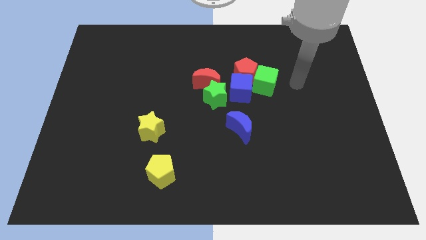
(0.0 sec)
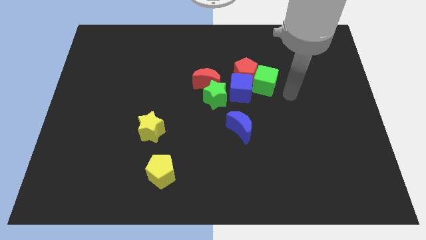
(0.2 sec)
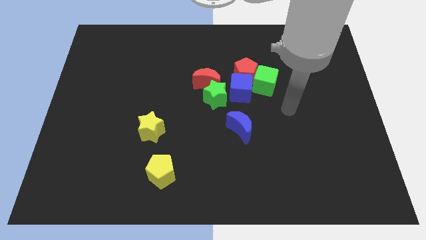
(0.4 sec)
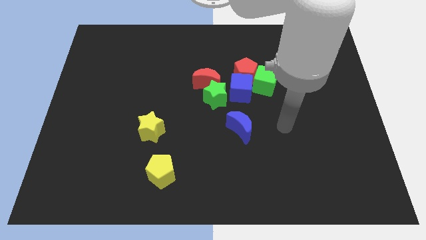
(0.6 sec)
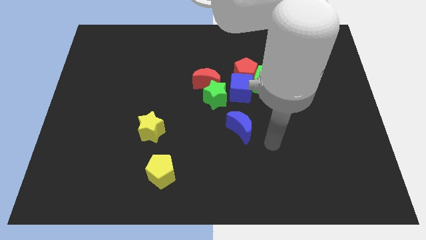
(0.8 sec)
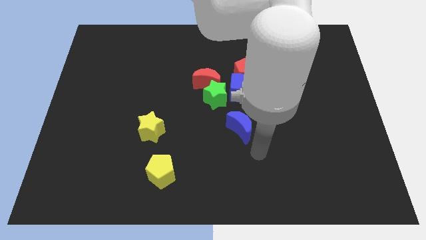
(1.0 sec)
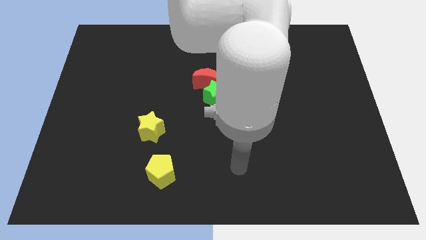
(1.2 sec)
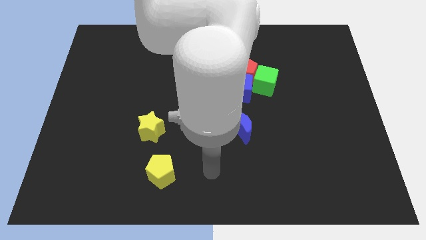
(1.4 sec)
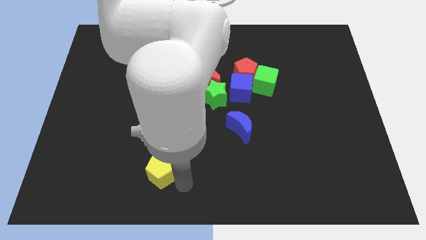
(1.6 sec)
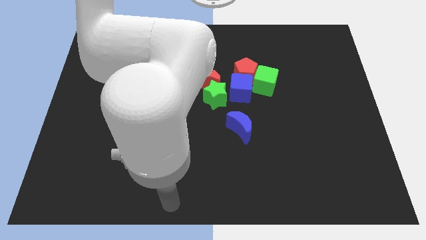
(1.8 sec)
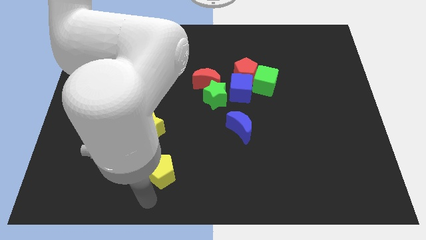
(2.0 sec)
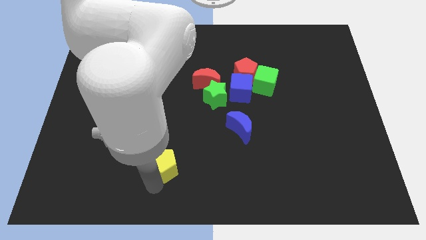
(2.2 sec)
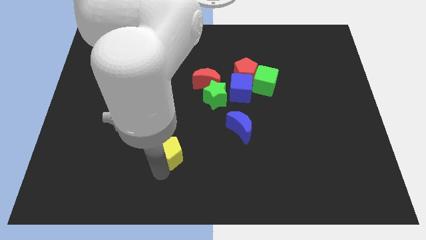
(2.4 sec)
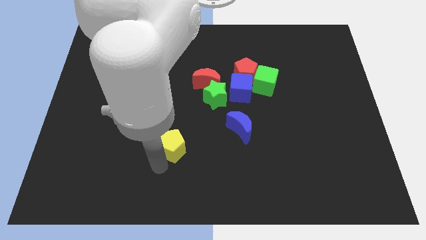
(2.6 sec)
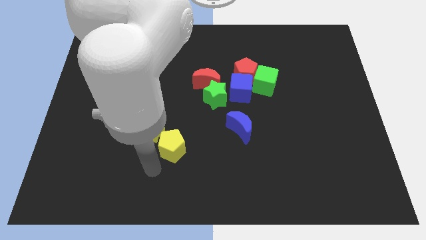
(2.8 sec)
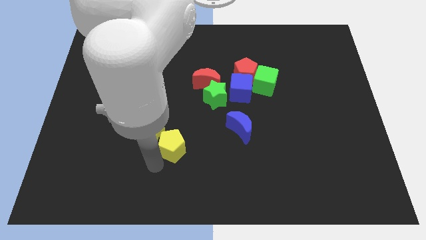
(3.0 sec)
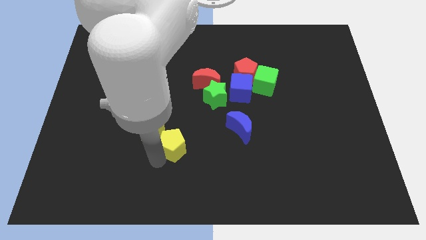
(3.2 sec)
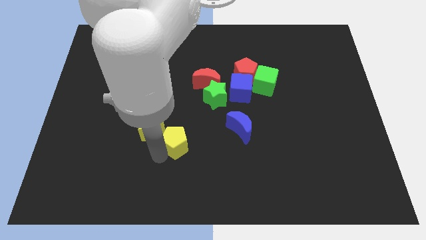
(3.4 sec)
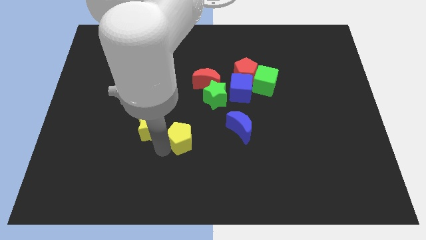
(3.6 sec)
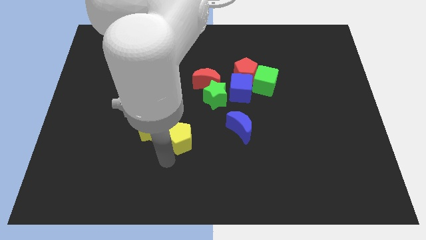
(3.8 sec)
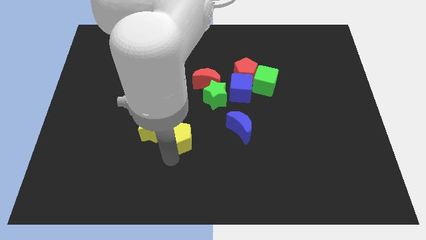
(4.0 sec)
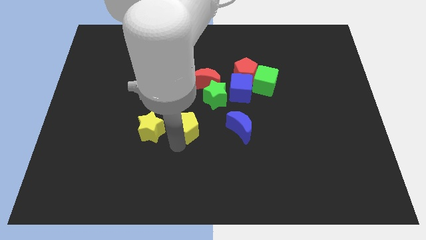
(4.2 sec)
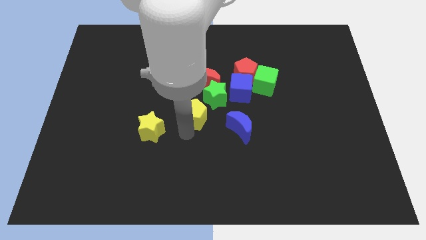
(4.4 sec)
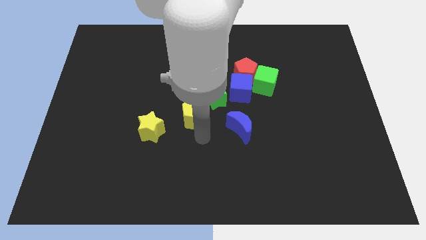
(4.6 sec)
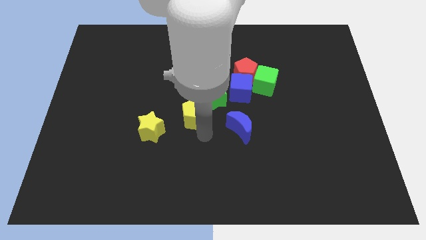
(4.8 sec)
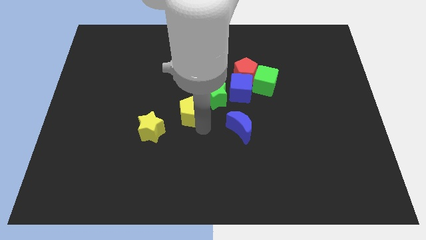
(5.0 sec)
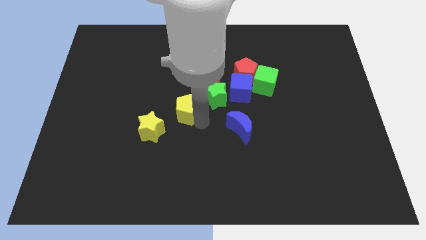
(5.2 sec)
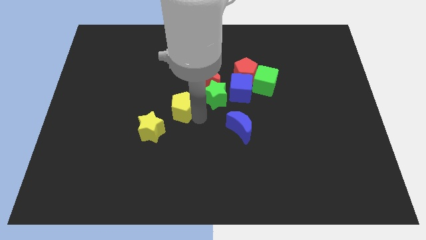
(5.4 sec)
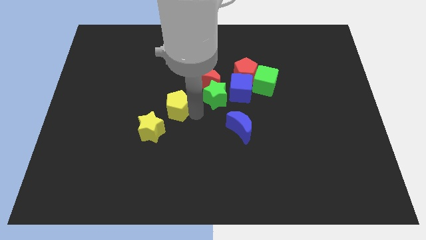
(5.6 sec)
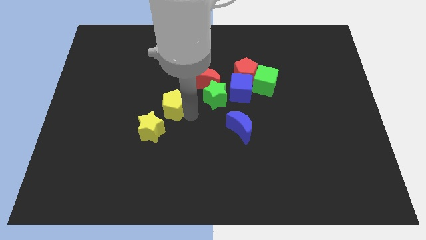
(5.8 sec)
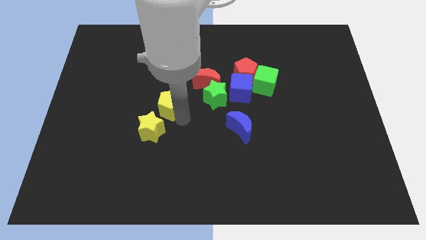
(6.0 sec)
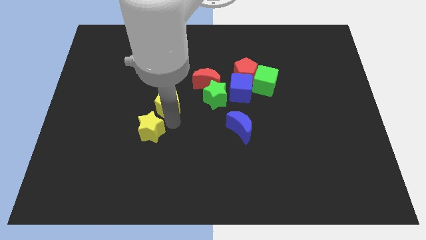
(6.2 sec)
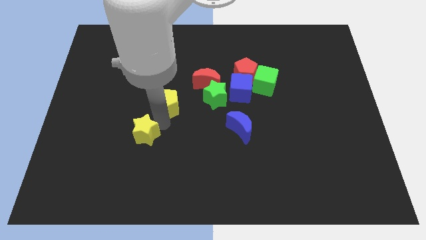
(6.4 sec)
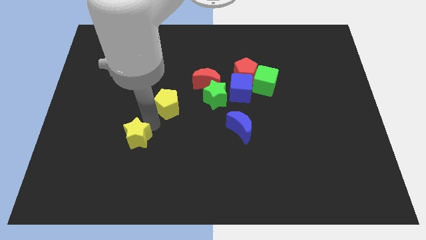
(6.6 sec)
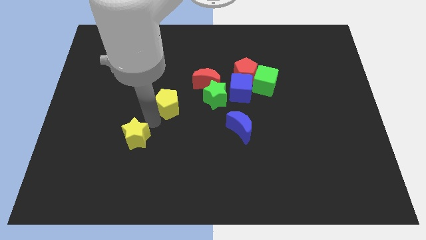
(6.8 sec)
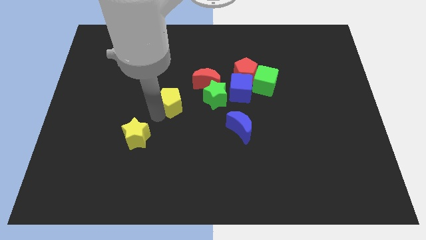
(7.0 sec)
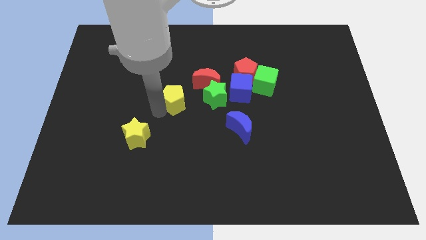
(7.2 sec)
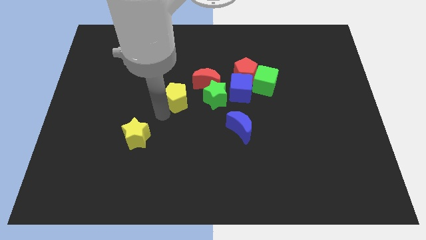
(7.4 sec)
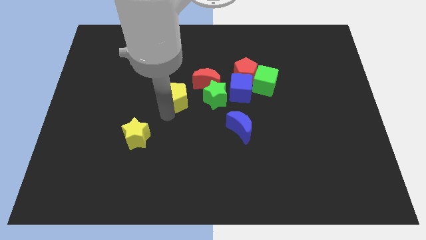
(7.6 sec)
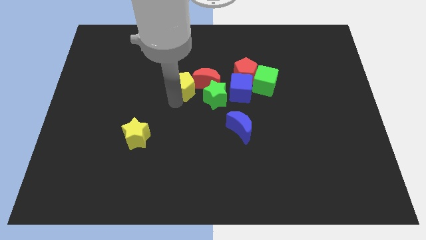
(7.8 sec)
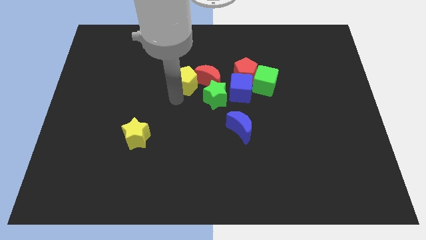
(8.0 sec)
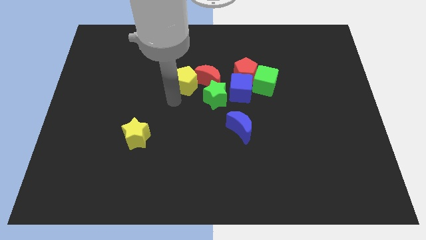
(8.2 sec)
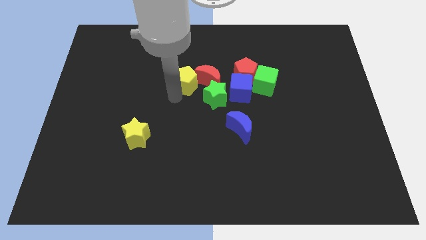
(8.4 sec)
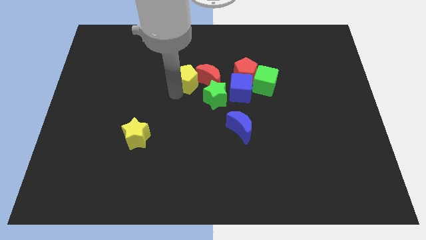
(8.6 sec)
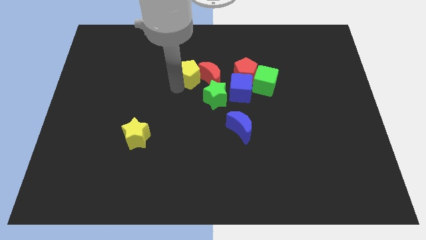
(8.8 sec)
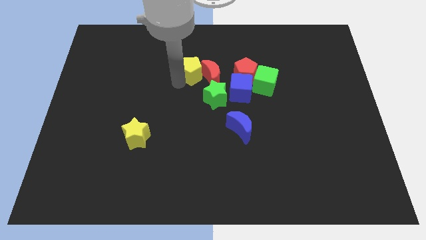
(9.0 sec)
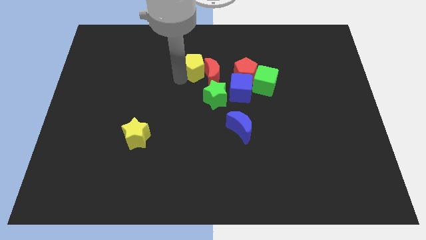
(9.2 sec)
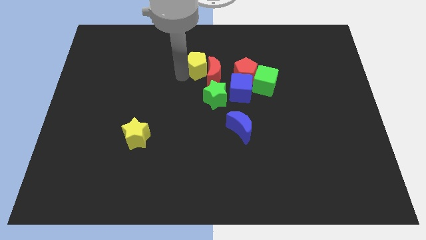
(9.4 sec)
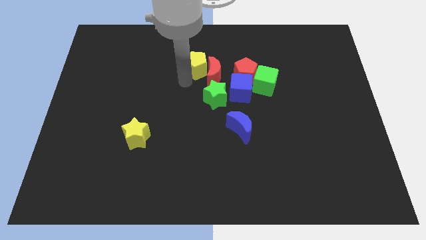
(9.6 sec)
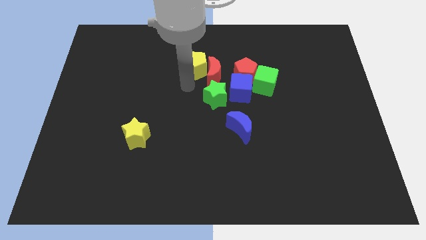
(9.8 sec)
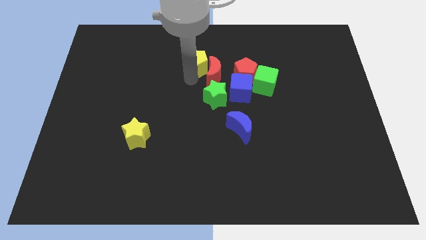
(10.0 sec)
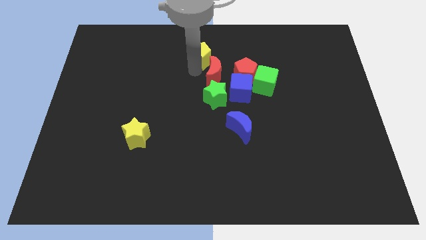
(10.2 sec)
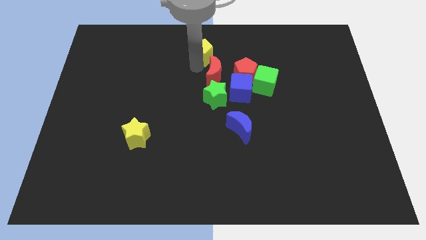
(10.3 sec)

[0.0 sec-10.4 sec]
push the yellow pentagon to the top

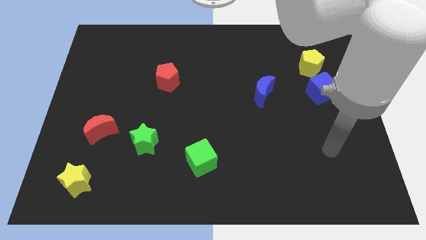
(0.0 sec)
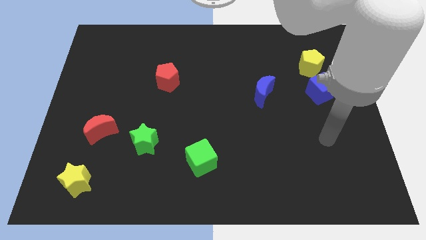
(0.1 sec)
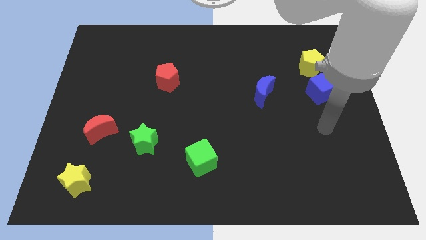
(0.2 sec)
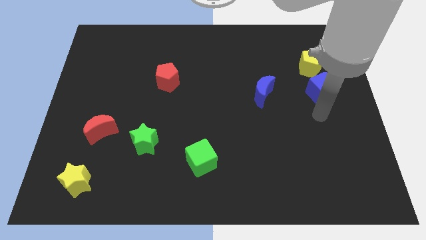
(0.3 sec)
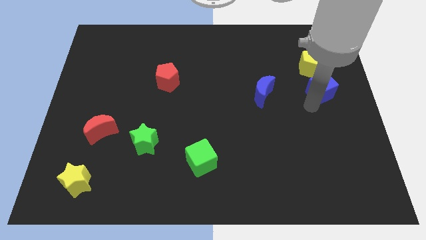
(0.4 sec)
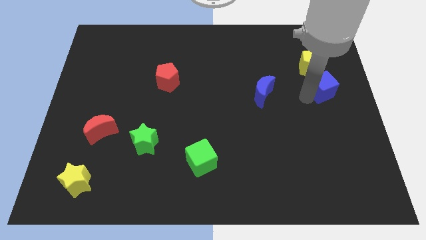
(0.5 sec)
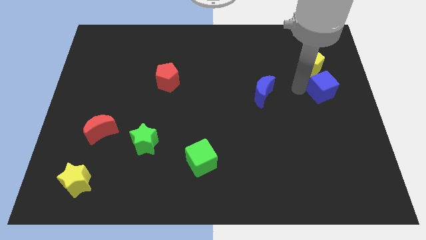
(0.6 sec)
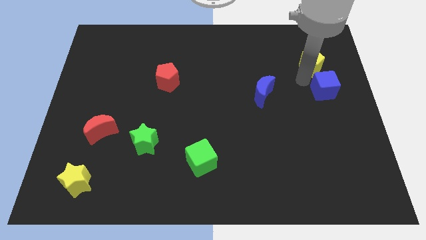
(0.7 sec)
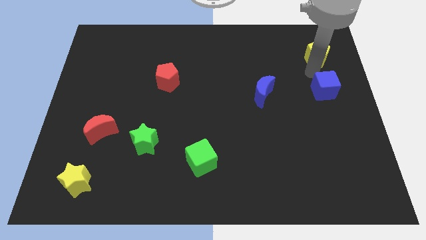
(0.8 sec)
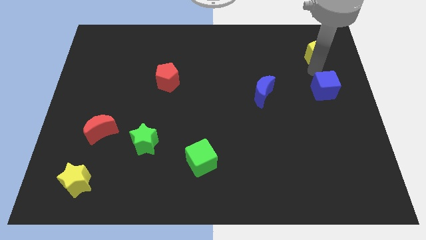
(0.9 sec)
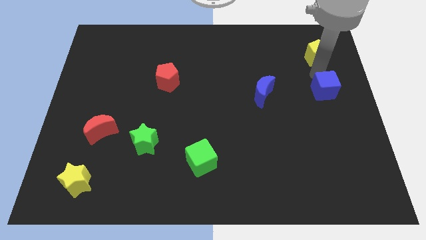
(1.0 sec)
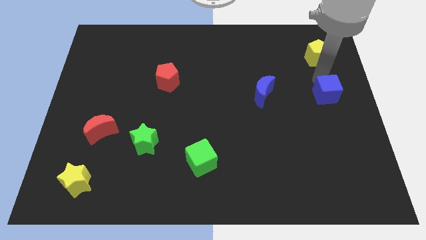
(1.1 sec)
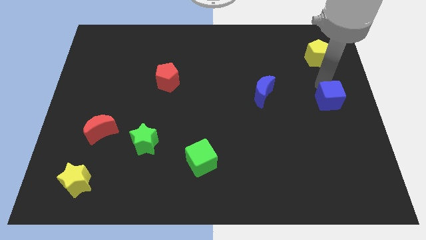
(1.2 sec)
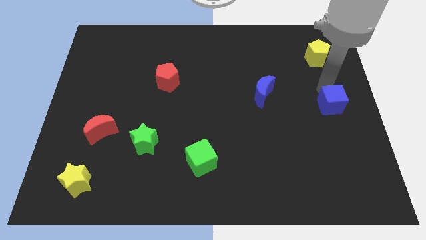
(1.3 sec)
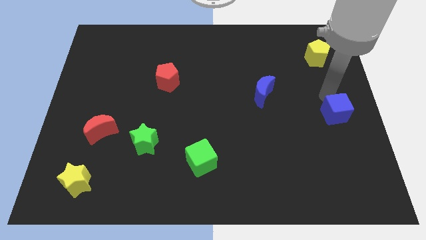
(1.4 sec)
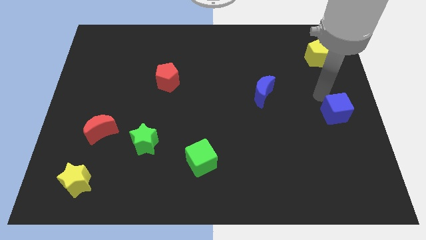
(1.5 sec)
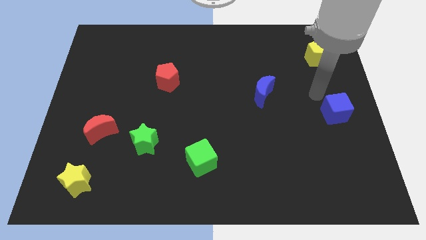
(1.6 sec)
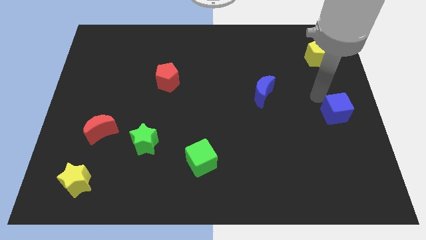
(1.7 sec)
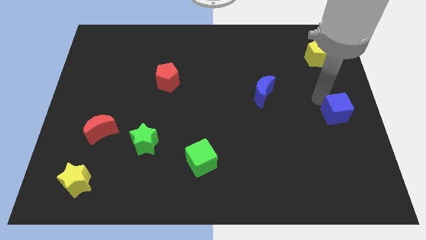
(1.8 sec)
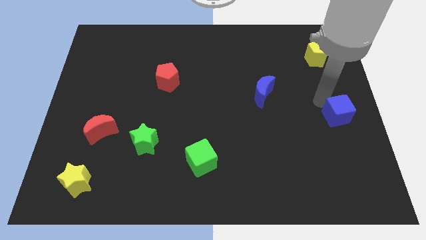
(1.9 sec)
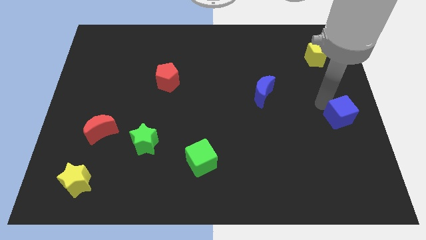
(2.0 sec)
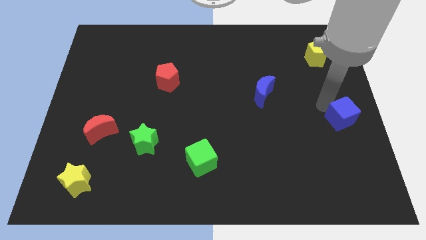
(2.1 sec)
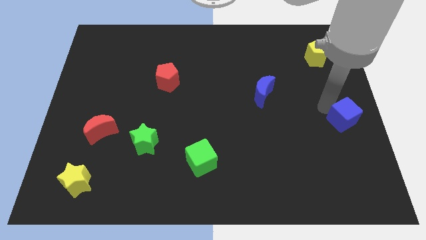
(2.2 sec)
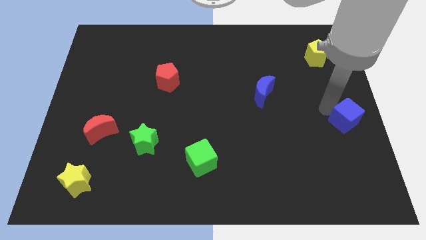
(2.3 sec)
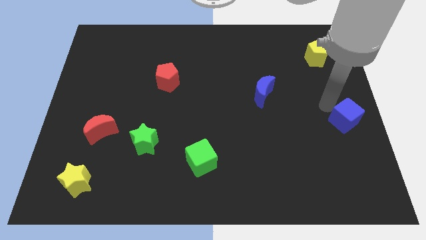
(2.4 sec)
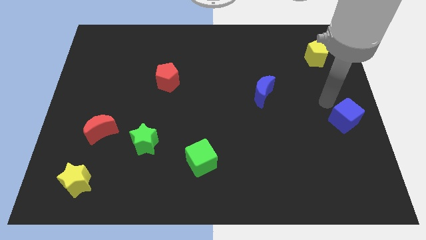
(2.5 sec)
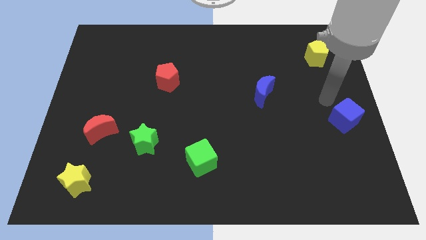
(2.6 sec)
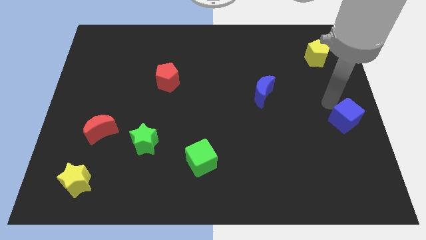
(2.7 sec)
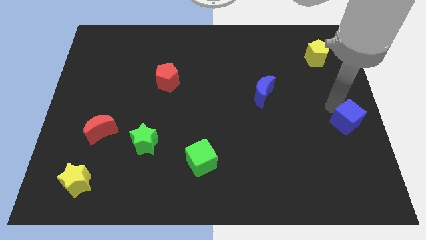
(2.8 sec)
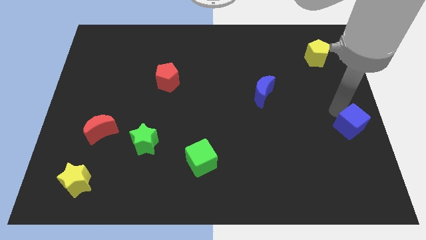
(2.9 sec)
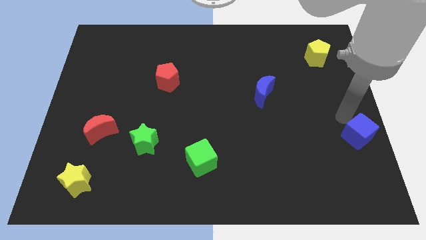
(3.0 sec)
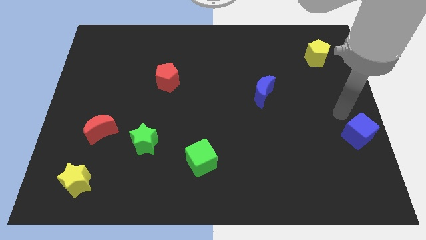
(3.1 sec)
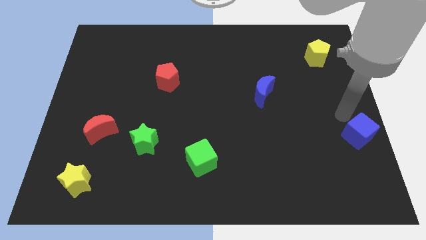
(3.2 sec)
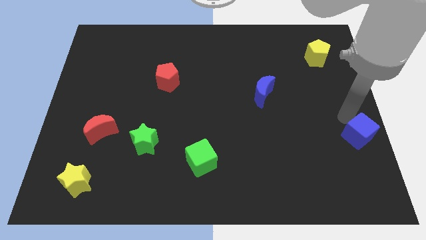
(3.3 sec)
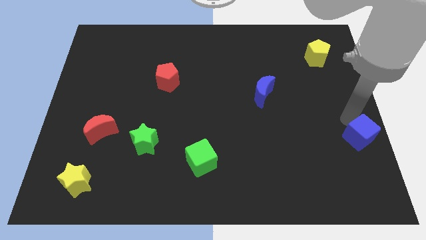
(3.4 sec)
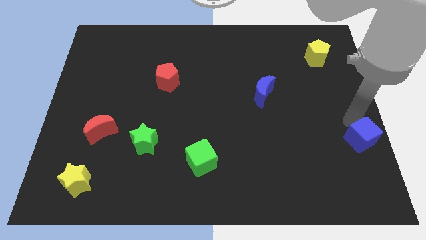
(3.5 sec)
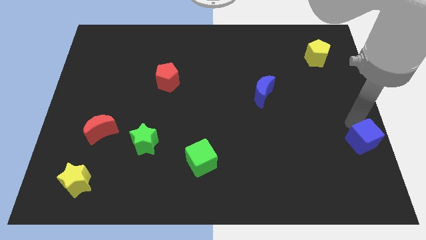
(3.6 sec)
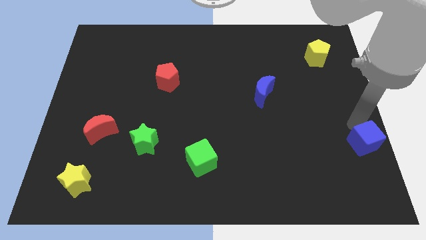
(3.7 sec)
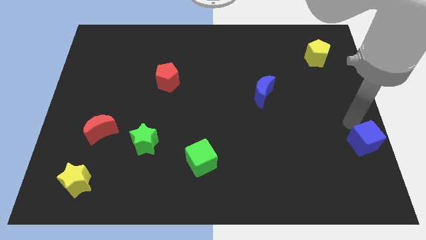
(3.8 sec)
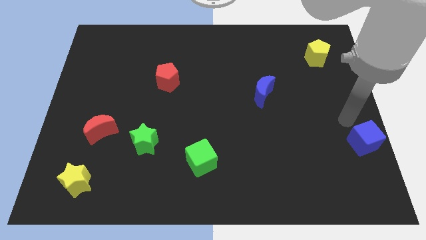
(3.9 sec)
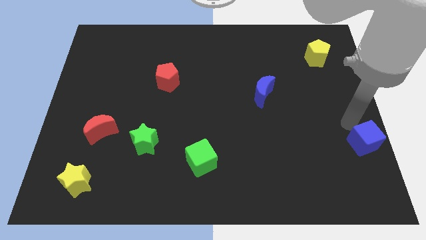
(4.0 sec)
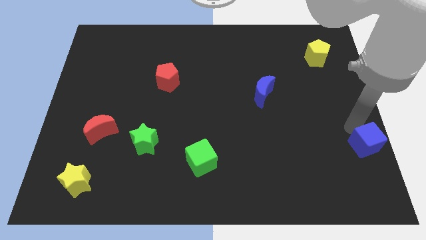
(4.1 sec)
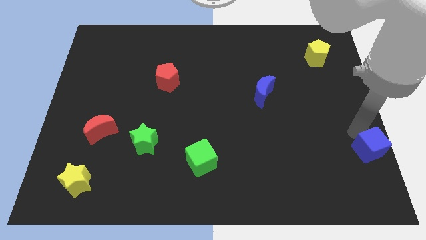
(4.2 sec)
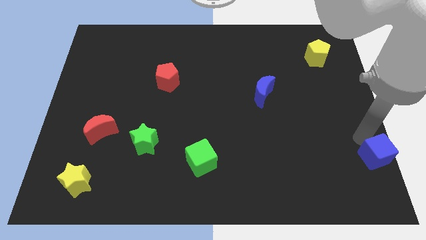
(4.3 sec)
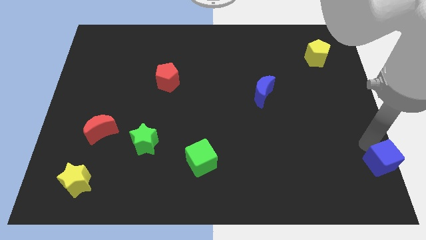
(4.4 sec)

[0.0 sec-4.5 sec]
slide the blue cube to the bottom right
